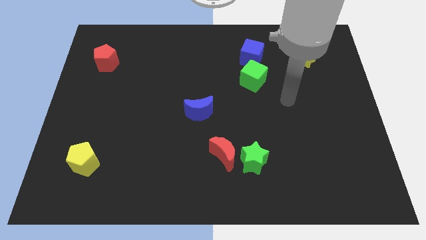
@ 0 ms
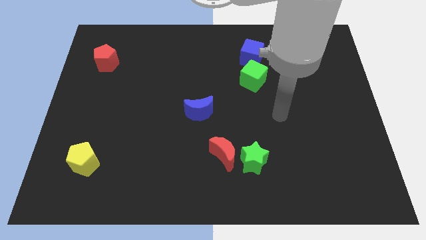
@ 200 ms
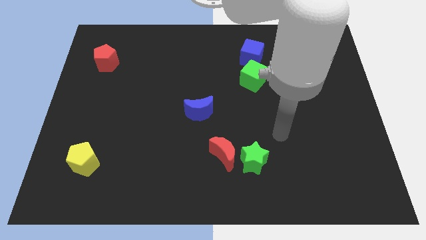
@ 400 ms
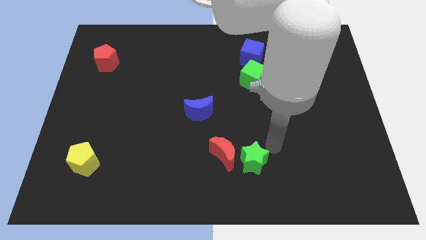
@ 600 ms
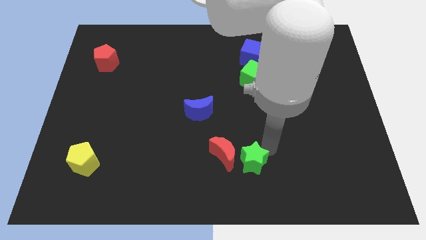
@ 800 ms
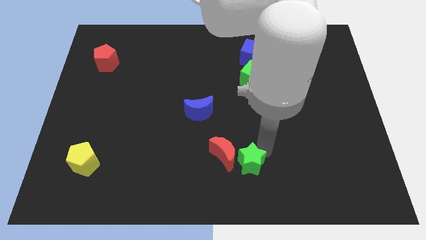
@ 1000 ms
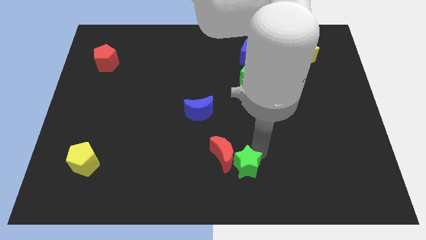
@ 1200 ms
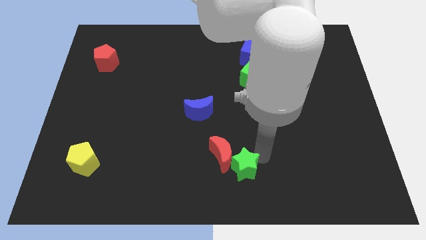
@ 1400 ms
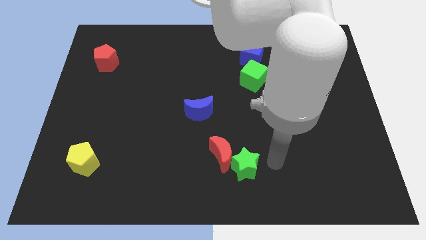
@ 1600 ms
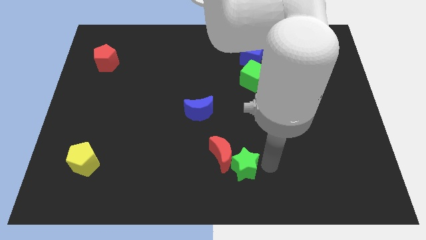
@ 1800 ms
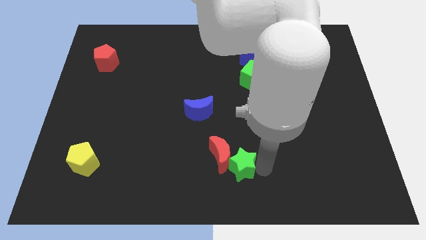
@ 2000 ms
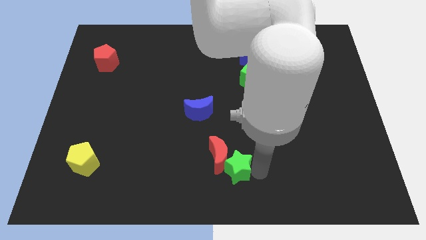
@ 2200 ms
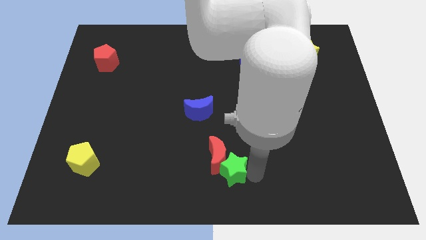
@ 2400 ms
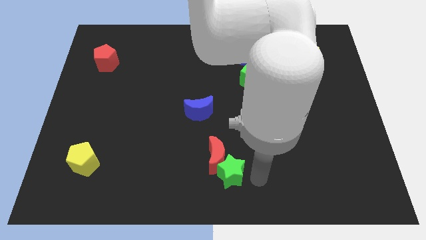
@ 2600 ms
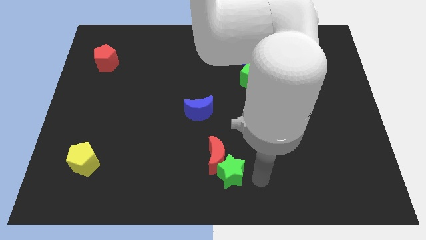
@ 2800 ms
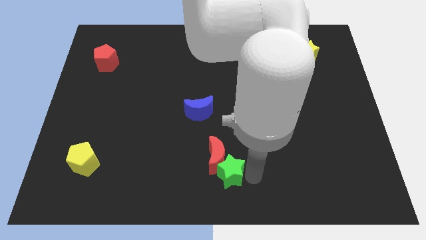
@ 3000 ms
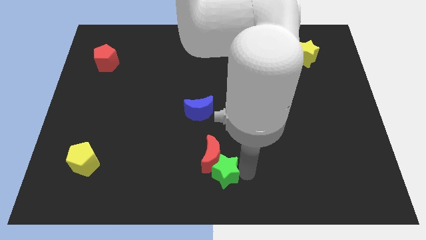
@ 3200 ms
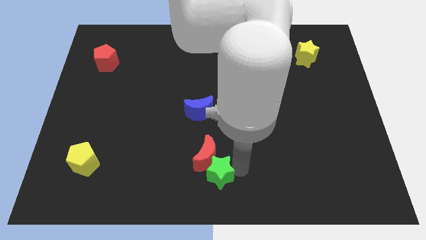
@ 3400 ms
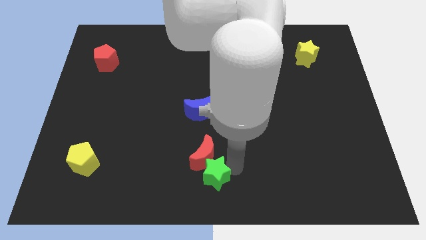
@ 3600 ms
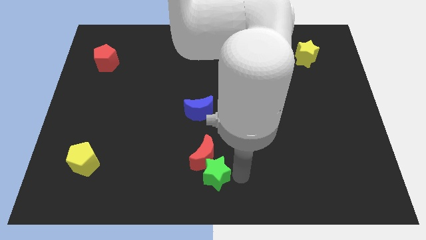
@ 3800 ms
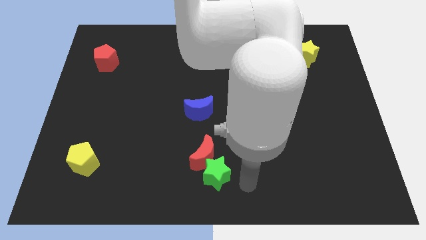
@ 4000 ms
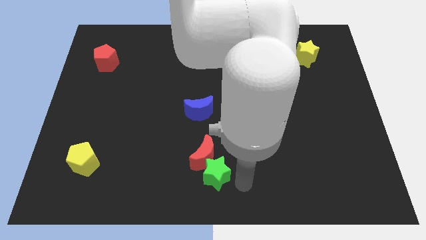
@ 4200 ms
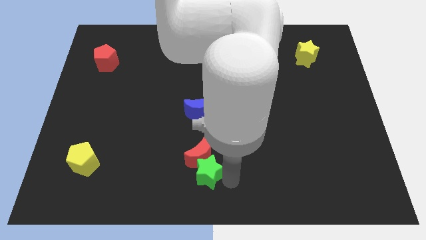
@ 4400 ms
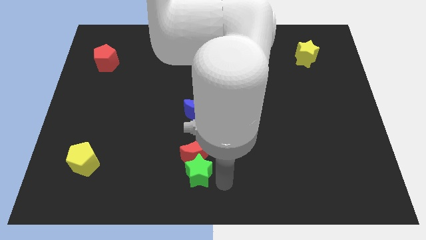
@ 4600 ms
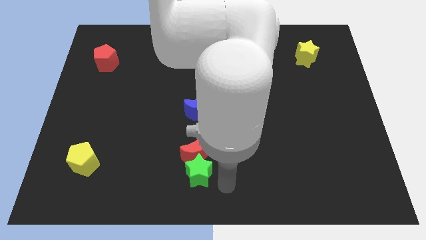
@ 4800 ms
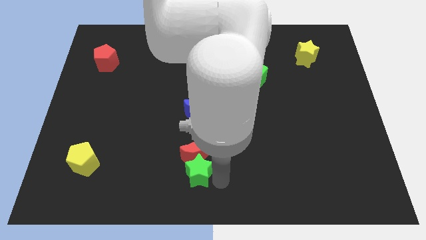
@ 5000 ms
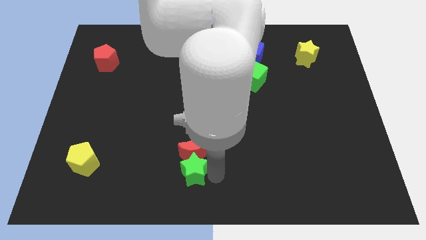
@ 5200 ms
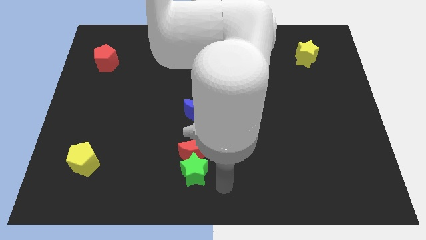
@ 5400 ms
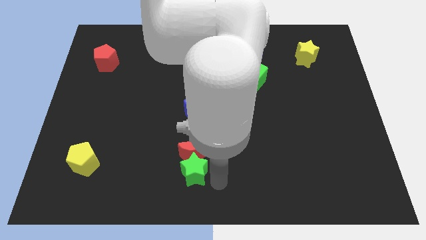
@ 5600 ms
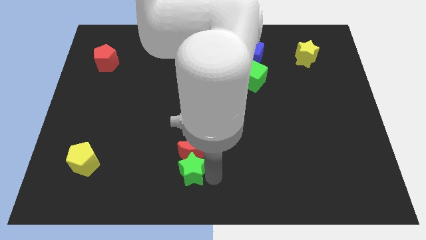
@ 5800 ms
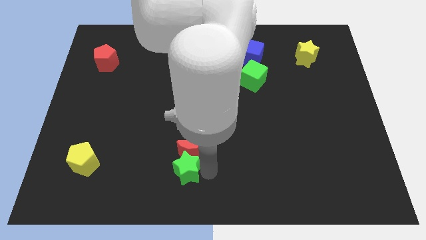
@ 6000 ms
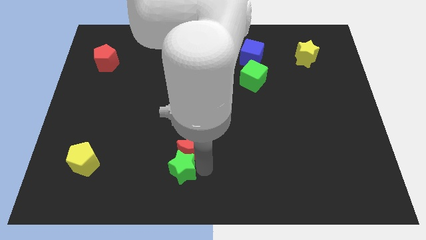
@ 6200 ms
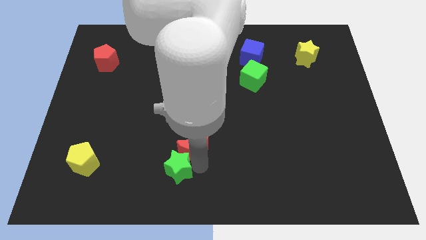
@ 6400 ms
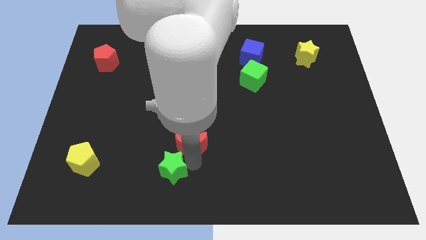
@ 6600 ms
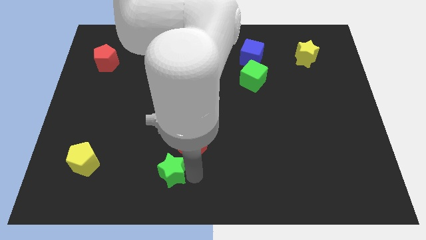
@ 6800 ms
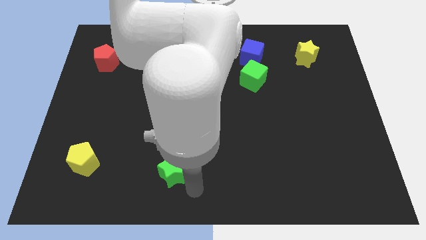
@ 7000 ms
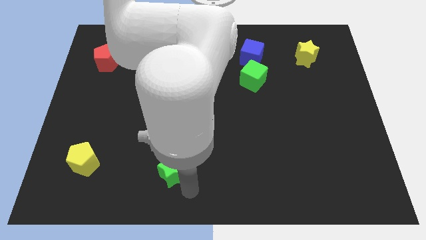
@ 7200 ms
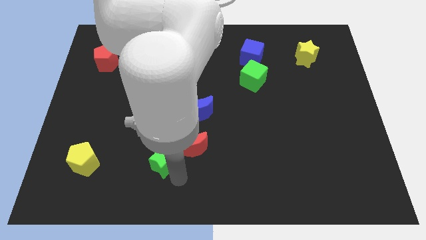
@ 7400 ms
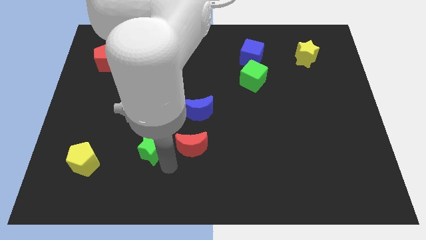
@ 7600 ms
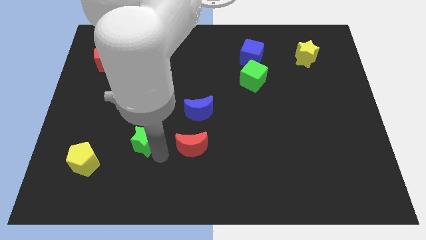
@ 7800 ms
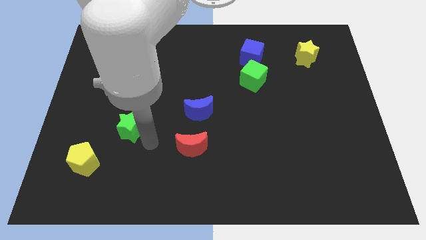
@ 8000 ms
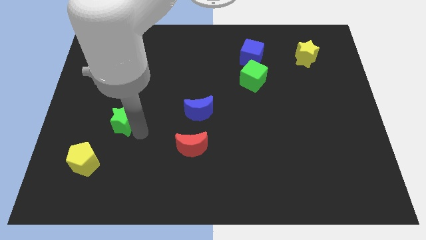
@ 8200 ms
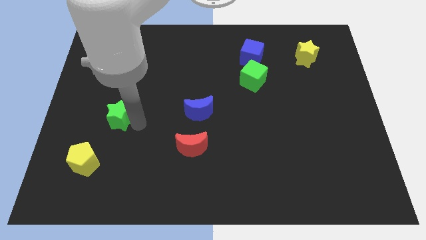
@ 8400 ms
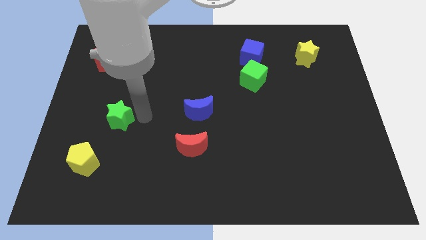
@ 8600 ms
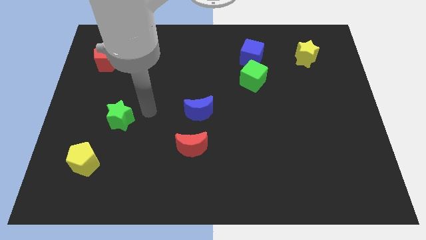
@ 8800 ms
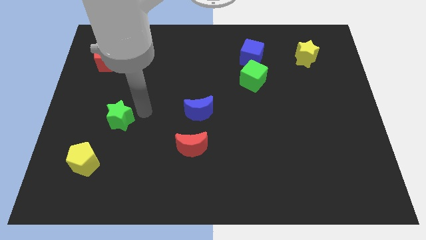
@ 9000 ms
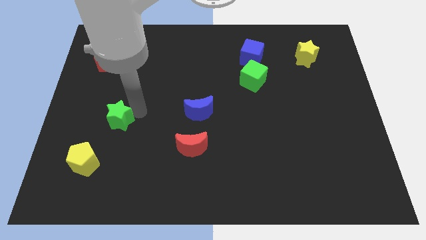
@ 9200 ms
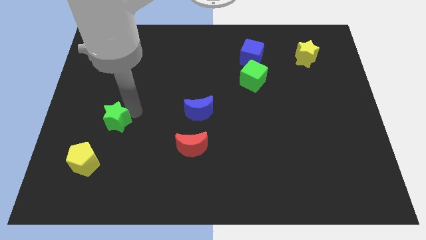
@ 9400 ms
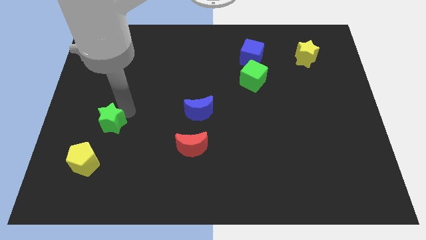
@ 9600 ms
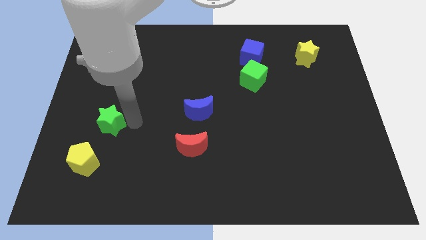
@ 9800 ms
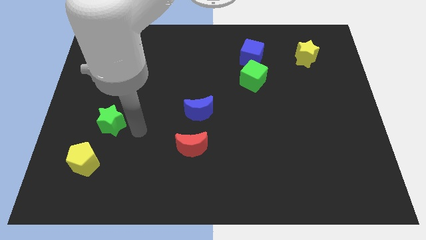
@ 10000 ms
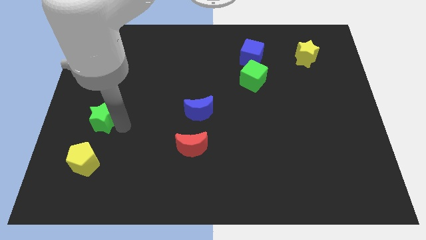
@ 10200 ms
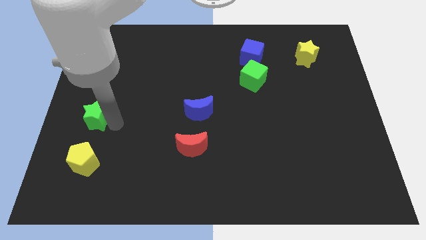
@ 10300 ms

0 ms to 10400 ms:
move the green star to the center left

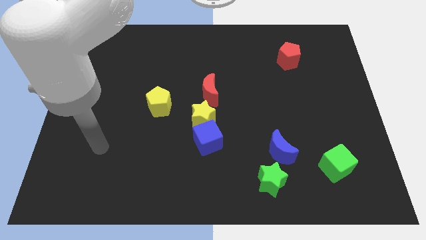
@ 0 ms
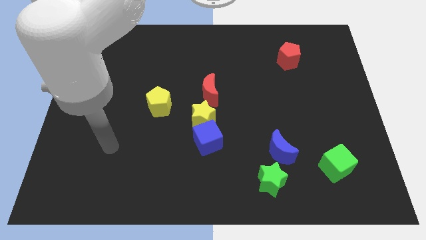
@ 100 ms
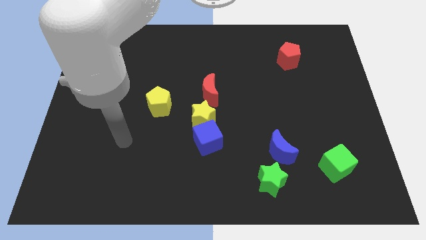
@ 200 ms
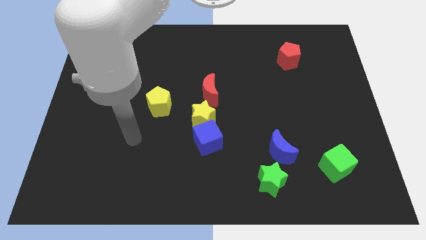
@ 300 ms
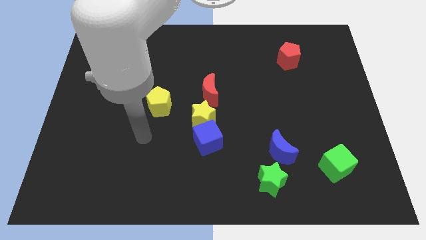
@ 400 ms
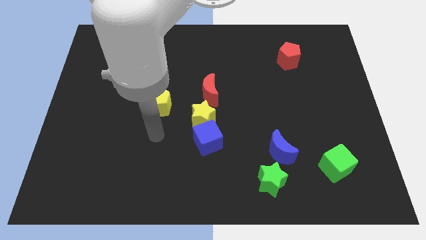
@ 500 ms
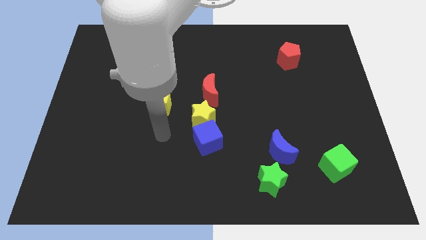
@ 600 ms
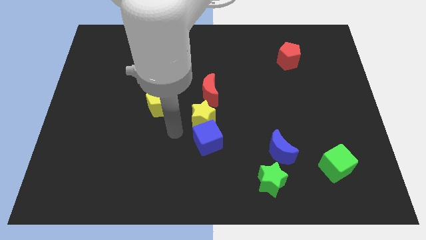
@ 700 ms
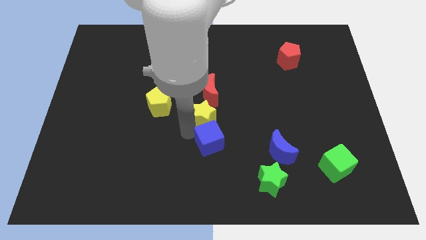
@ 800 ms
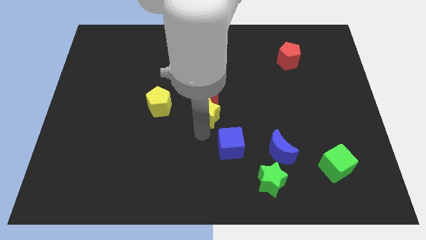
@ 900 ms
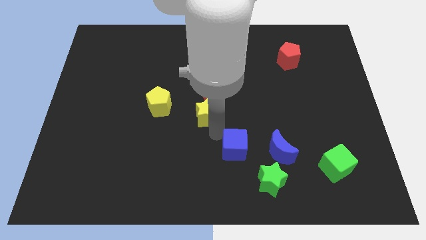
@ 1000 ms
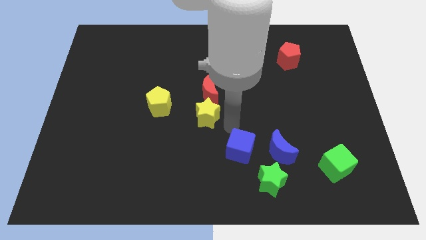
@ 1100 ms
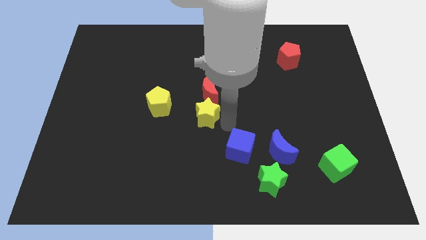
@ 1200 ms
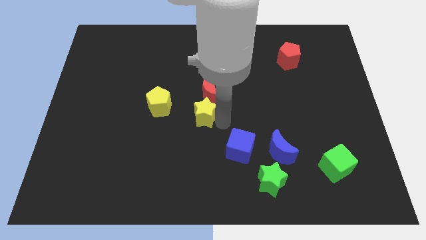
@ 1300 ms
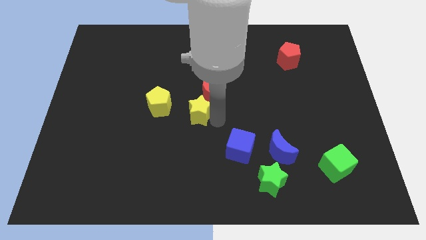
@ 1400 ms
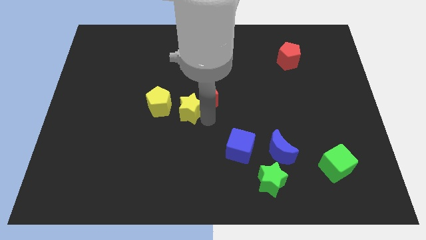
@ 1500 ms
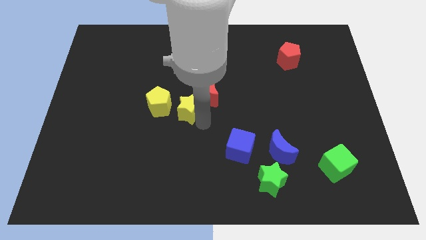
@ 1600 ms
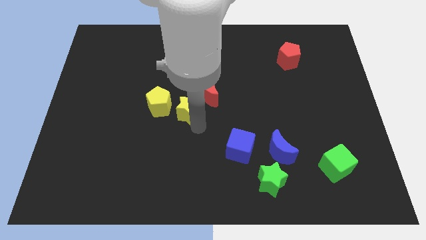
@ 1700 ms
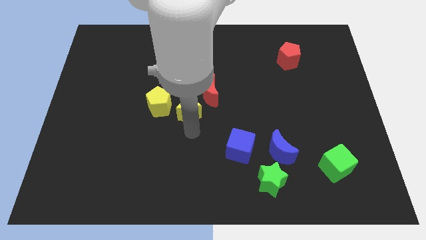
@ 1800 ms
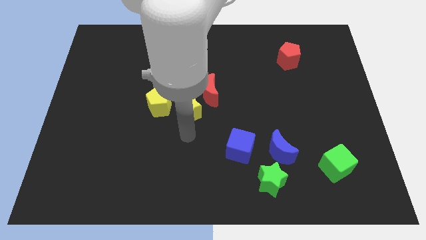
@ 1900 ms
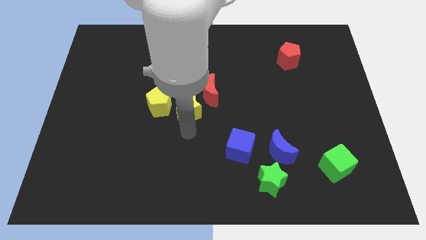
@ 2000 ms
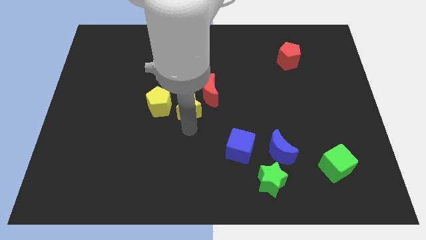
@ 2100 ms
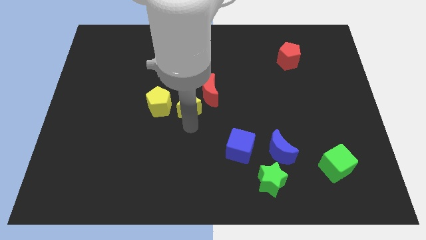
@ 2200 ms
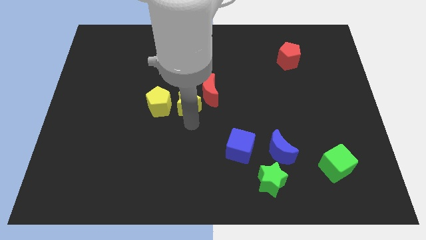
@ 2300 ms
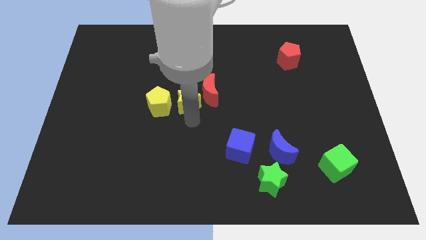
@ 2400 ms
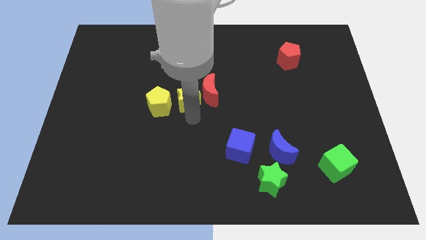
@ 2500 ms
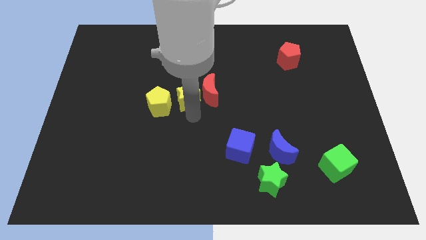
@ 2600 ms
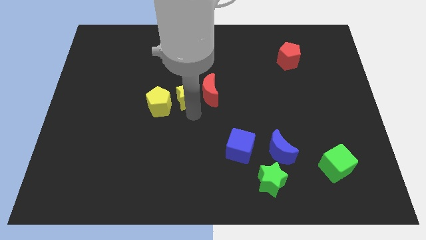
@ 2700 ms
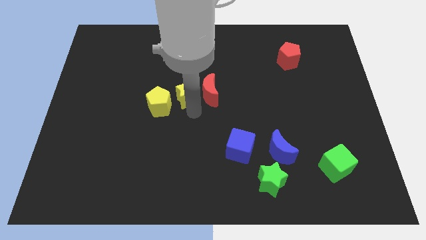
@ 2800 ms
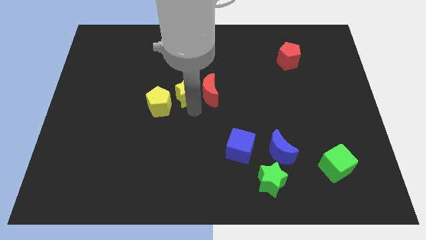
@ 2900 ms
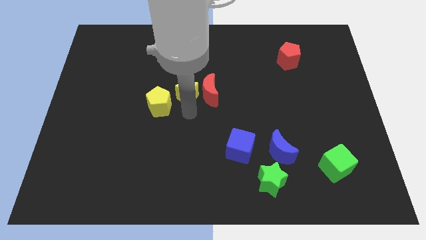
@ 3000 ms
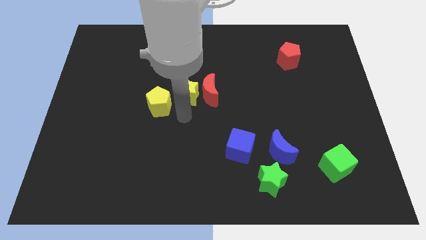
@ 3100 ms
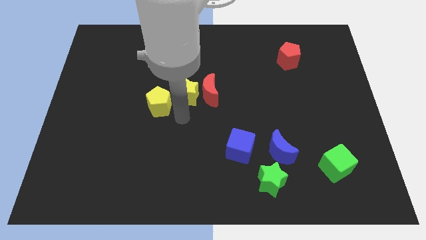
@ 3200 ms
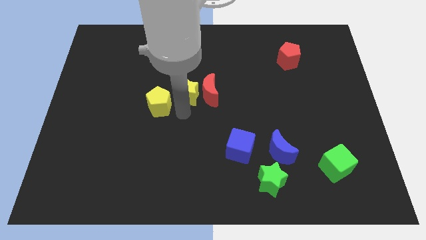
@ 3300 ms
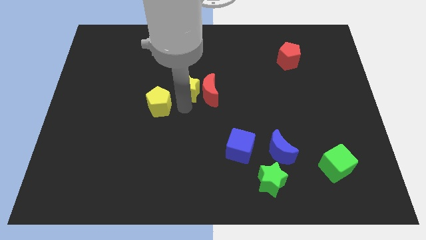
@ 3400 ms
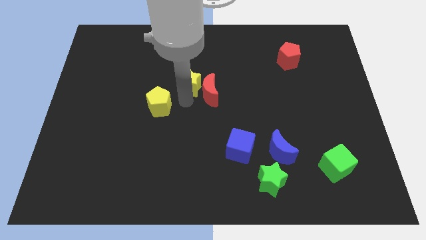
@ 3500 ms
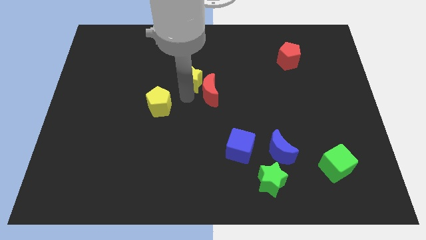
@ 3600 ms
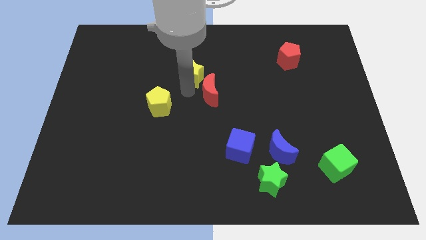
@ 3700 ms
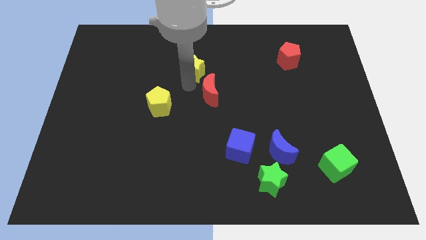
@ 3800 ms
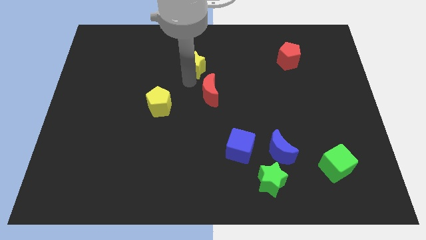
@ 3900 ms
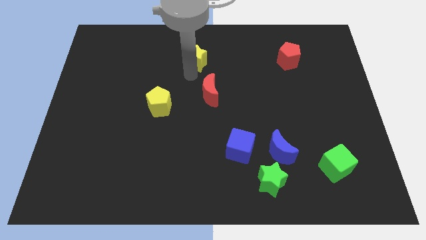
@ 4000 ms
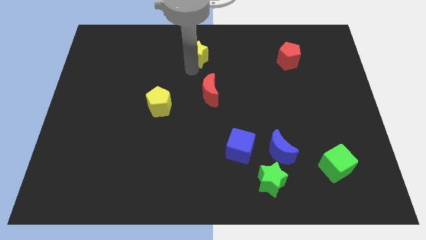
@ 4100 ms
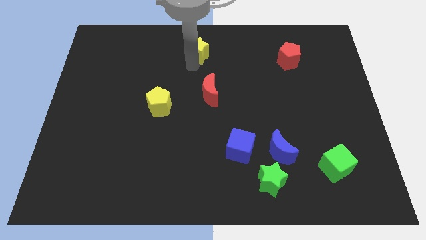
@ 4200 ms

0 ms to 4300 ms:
push the yellow star to the top side
